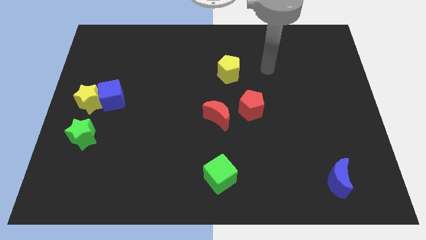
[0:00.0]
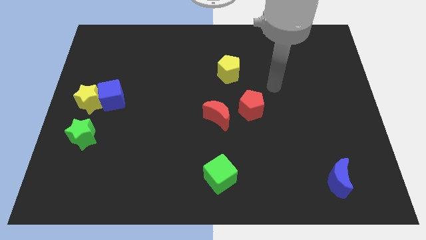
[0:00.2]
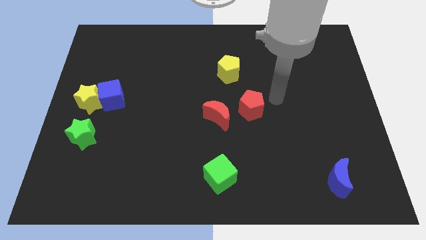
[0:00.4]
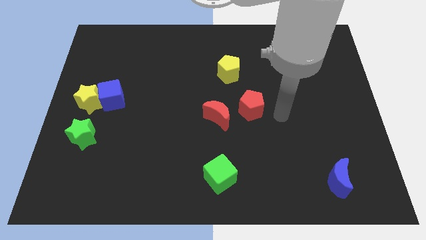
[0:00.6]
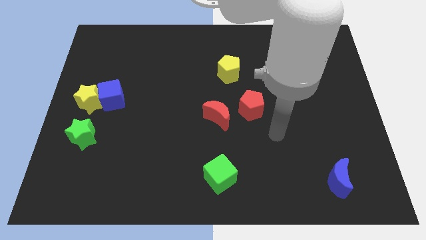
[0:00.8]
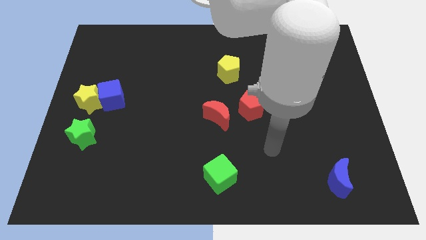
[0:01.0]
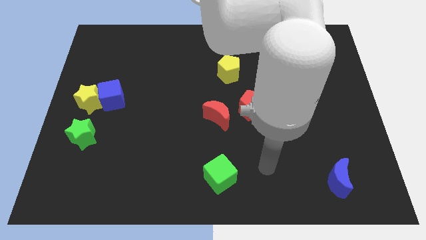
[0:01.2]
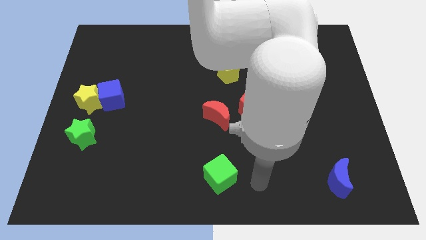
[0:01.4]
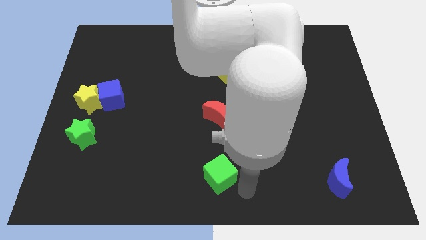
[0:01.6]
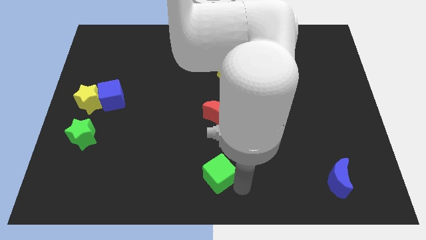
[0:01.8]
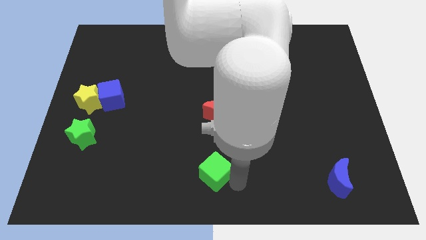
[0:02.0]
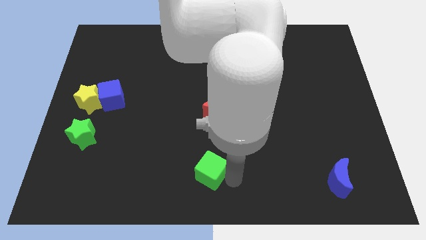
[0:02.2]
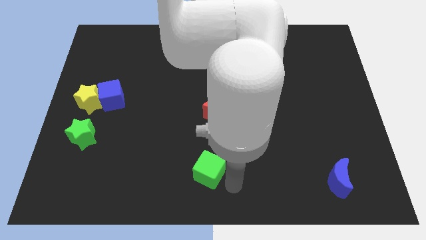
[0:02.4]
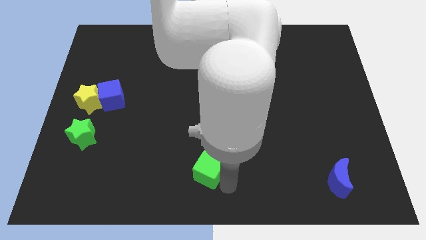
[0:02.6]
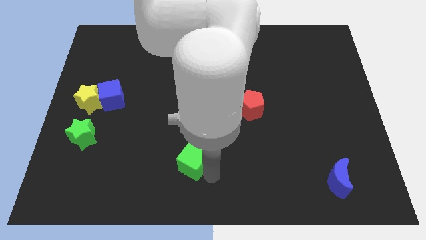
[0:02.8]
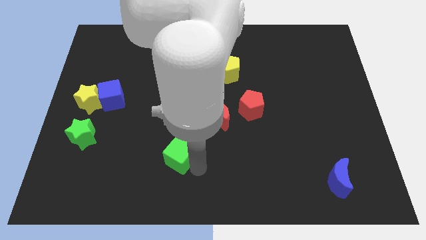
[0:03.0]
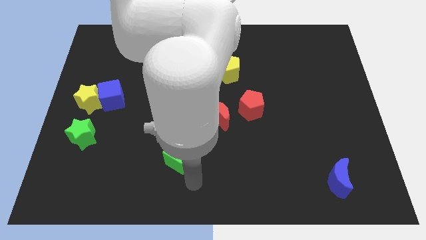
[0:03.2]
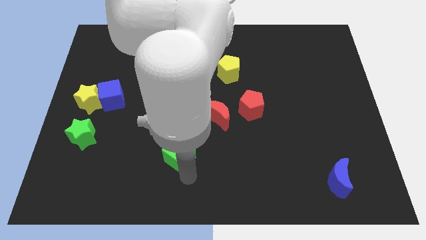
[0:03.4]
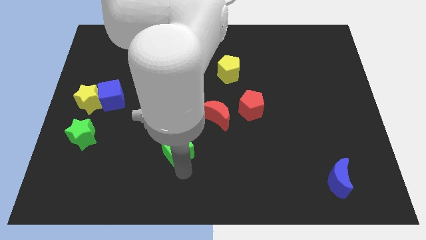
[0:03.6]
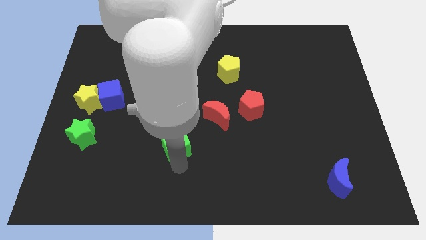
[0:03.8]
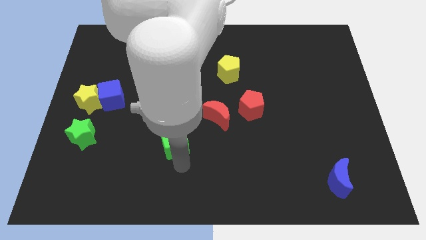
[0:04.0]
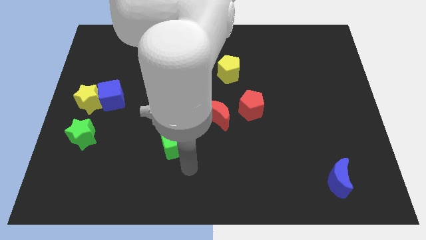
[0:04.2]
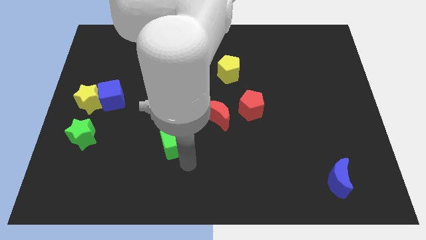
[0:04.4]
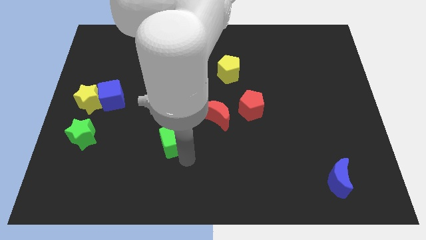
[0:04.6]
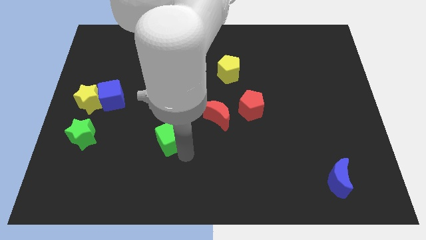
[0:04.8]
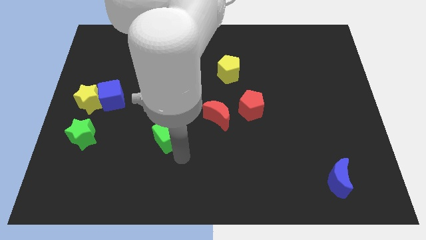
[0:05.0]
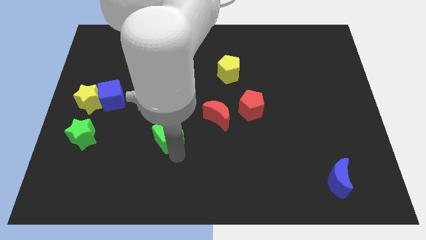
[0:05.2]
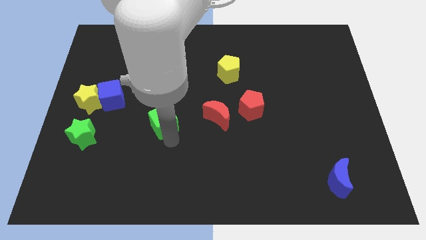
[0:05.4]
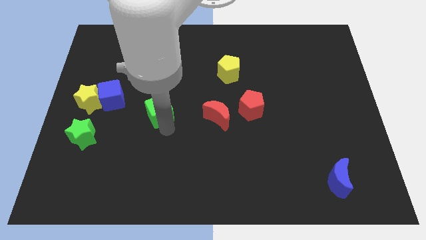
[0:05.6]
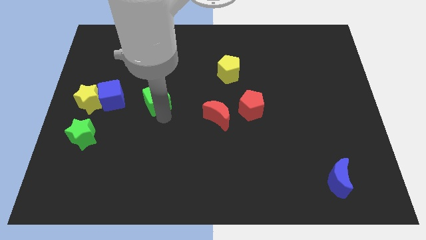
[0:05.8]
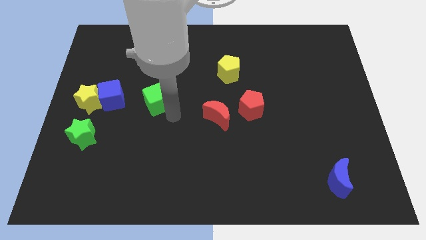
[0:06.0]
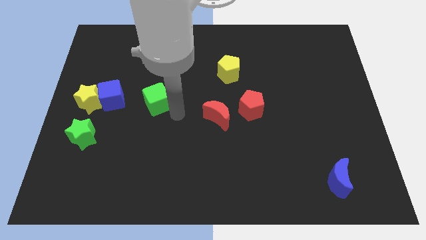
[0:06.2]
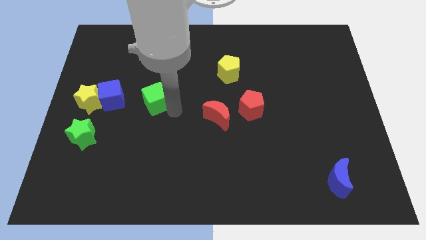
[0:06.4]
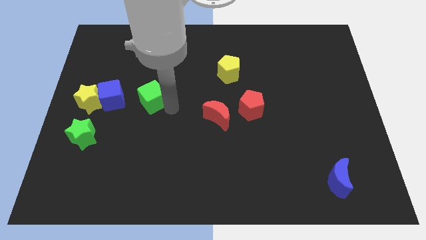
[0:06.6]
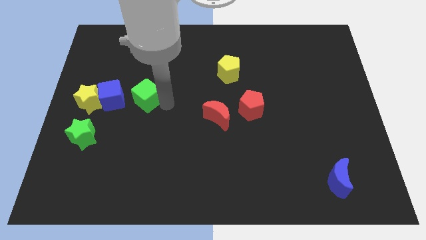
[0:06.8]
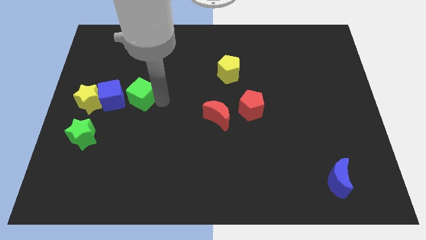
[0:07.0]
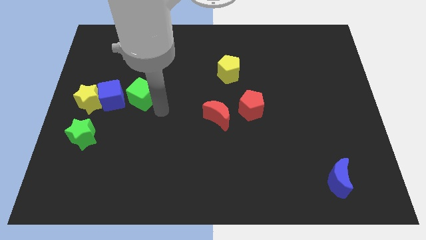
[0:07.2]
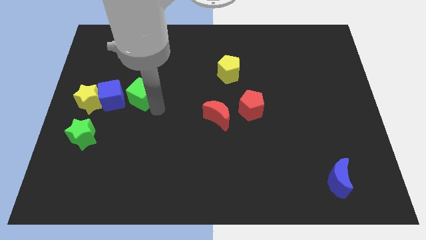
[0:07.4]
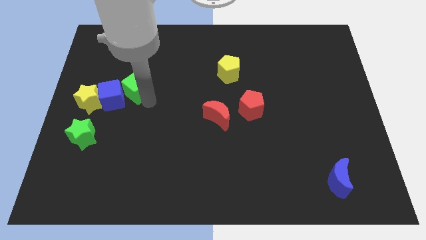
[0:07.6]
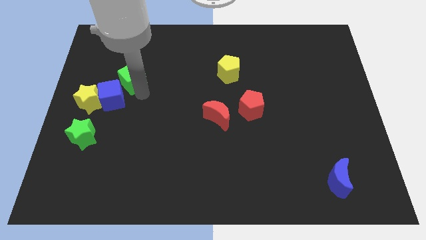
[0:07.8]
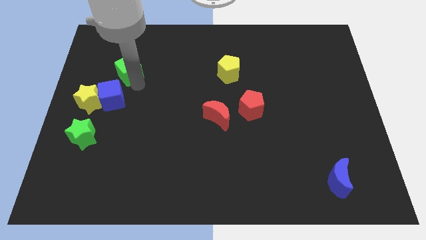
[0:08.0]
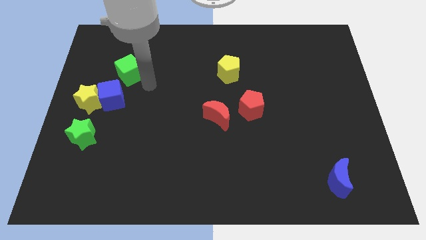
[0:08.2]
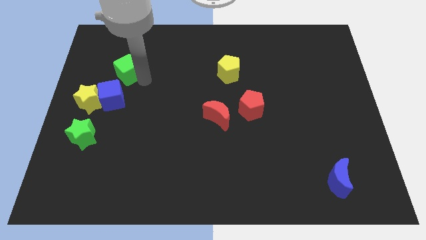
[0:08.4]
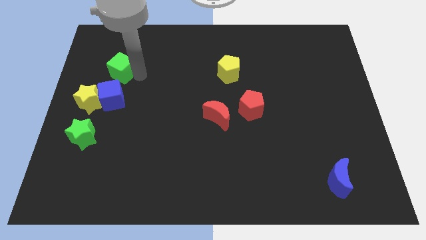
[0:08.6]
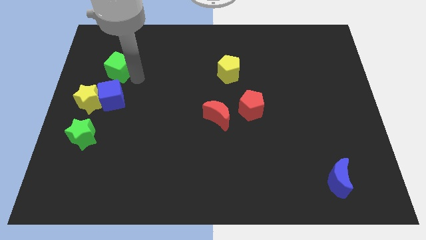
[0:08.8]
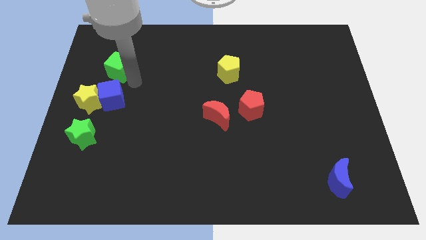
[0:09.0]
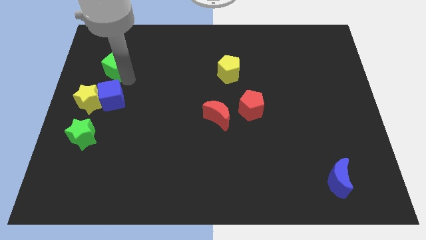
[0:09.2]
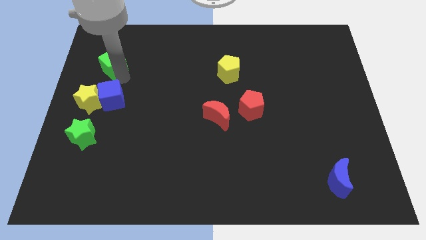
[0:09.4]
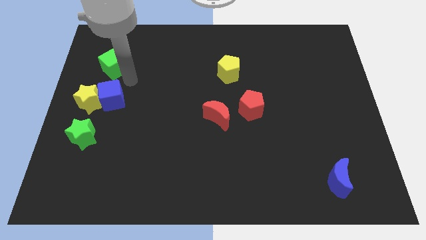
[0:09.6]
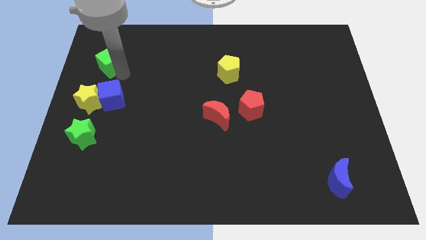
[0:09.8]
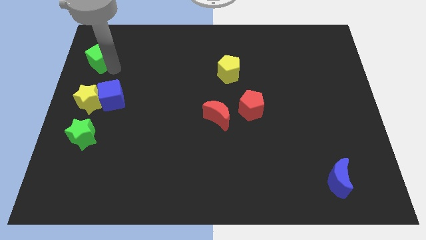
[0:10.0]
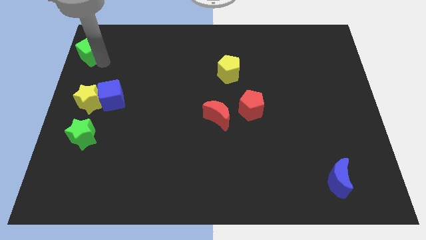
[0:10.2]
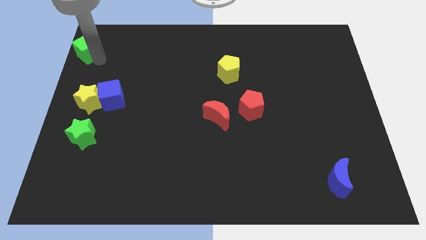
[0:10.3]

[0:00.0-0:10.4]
move the green cube to the top left corner

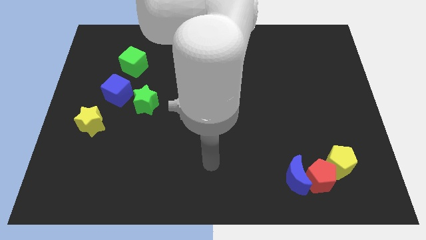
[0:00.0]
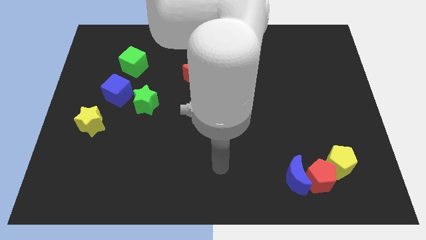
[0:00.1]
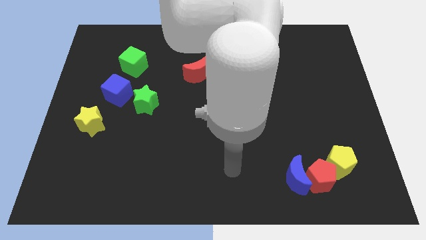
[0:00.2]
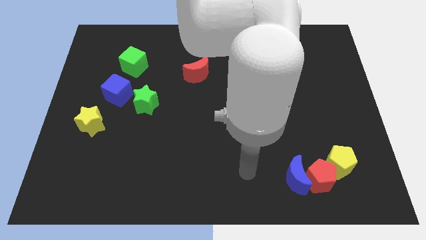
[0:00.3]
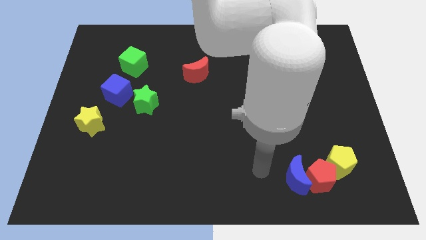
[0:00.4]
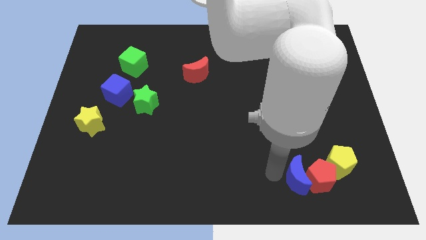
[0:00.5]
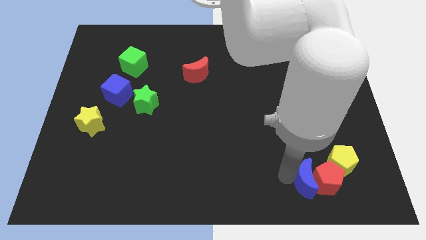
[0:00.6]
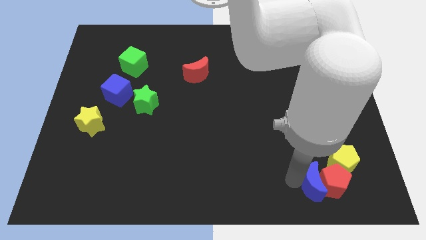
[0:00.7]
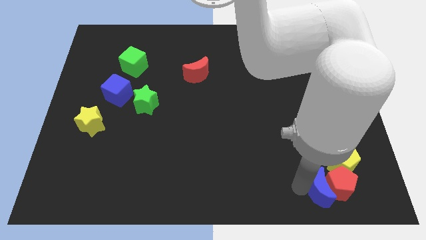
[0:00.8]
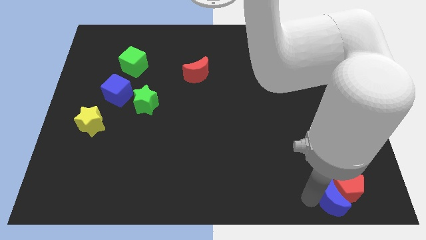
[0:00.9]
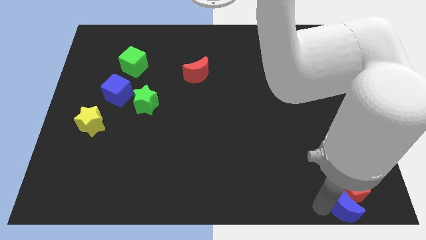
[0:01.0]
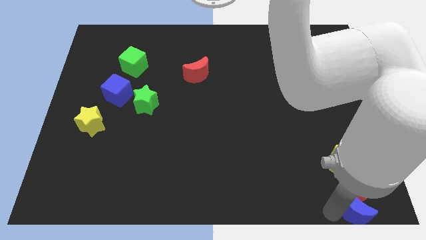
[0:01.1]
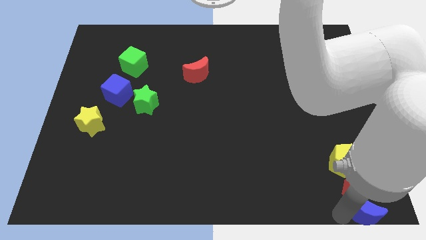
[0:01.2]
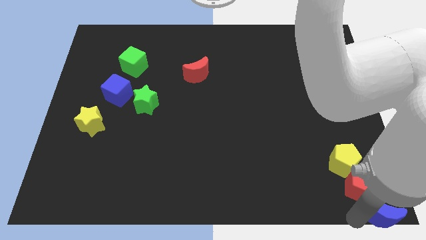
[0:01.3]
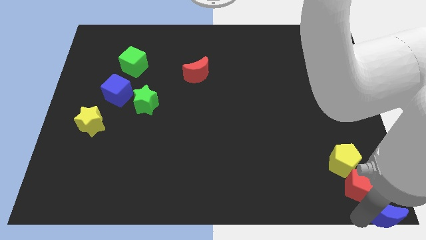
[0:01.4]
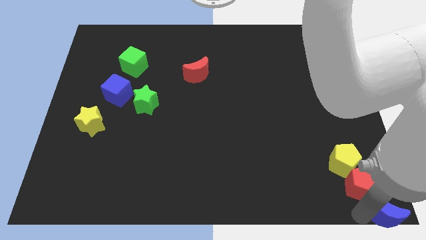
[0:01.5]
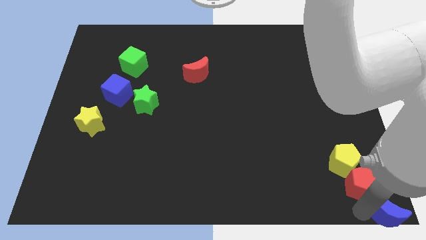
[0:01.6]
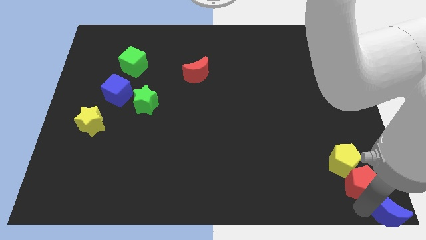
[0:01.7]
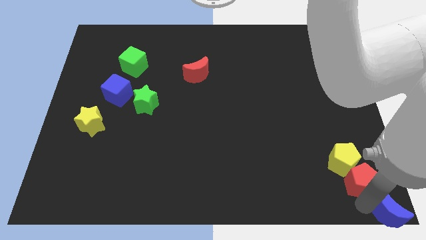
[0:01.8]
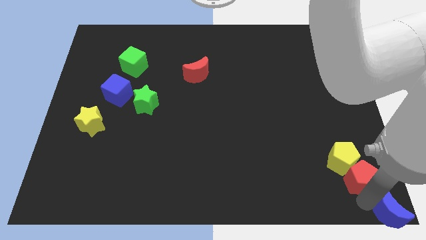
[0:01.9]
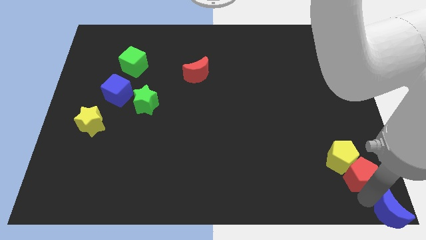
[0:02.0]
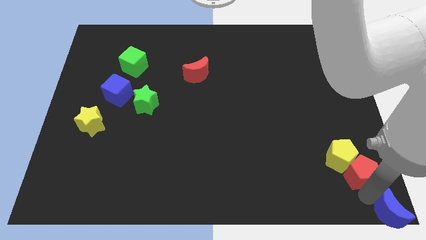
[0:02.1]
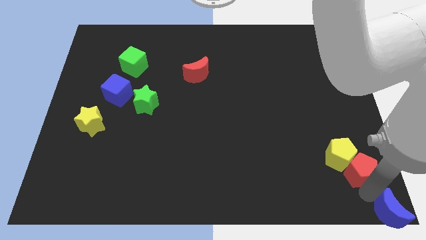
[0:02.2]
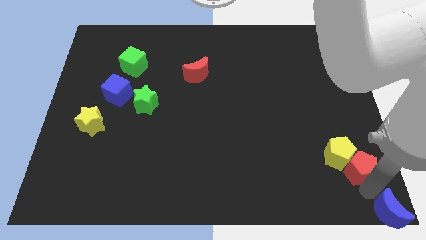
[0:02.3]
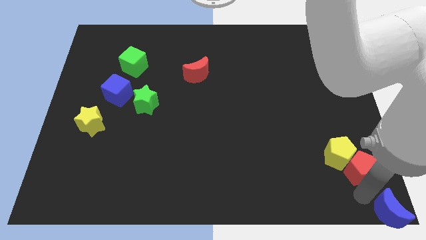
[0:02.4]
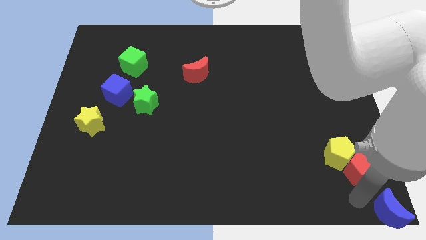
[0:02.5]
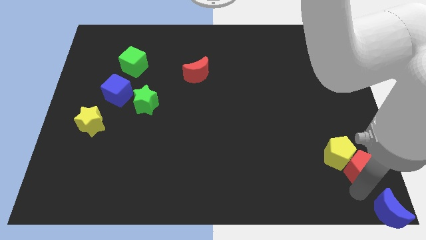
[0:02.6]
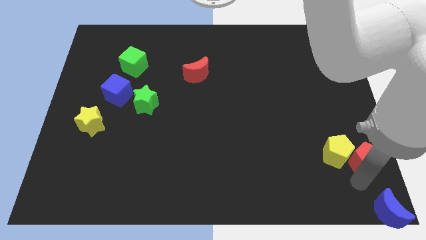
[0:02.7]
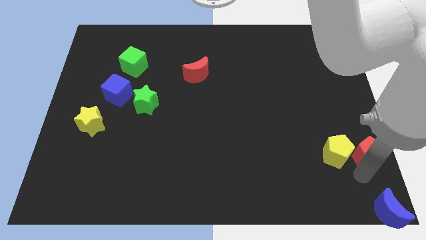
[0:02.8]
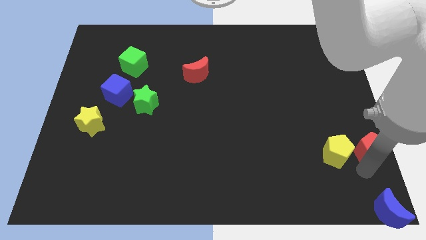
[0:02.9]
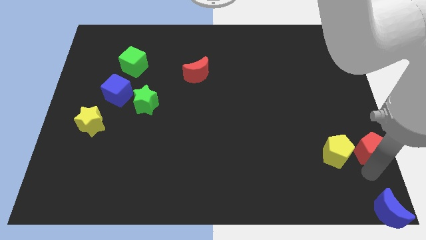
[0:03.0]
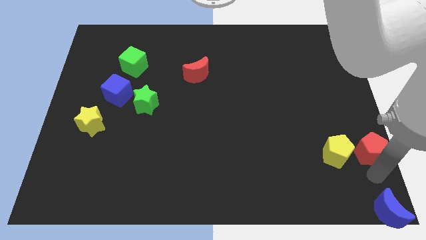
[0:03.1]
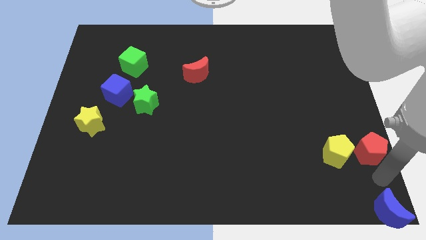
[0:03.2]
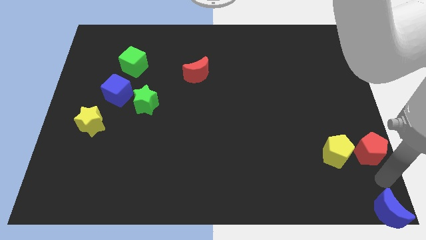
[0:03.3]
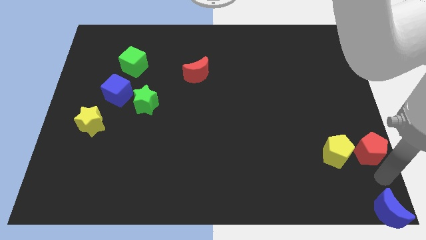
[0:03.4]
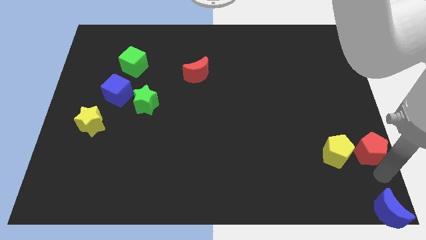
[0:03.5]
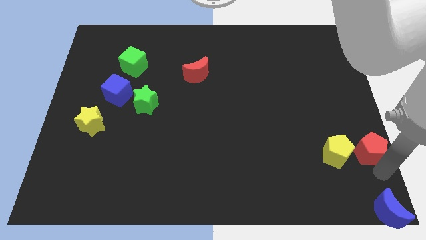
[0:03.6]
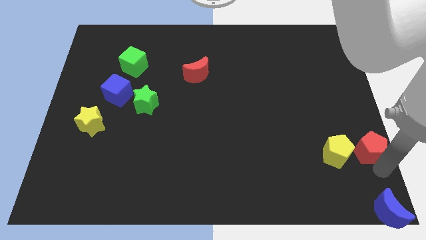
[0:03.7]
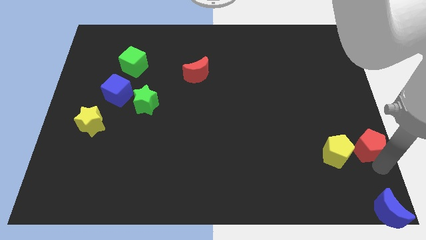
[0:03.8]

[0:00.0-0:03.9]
move the red pentagon to the right side of the board
